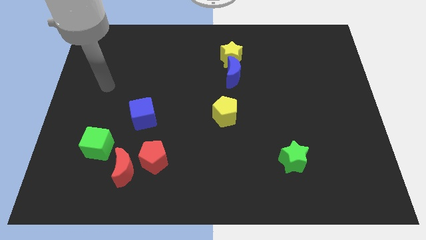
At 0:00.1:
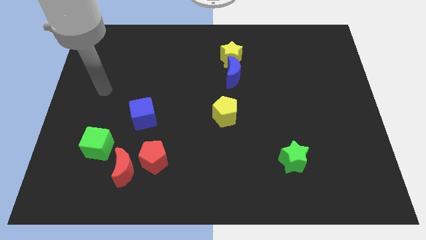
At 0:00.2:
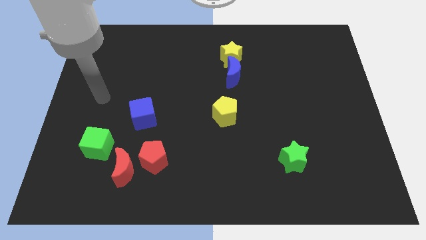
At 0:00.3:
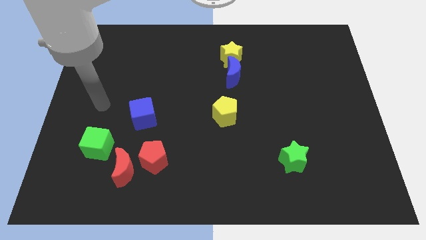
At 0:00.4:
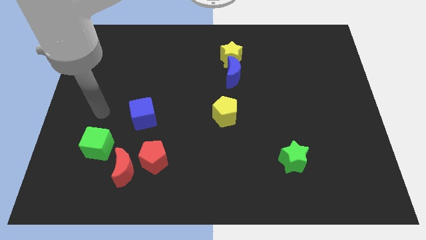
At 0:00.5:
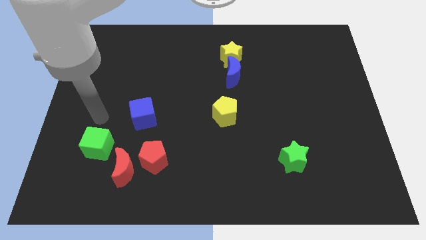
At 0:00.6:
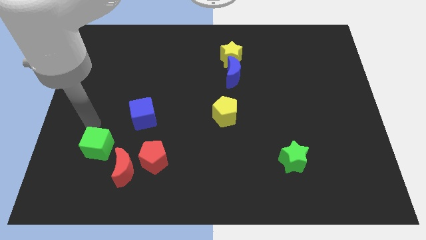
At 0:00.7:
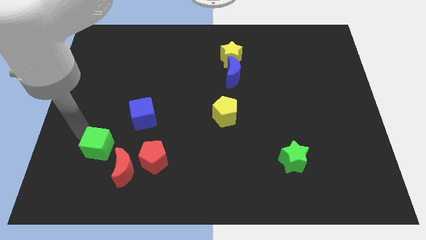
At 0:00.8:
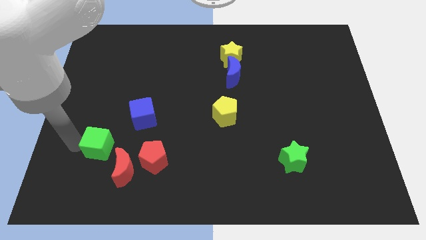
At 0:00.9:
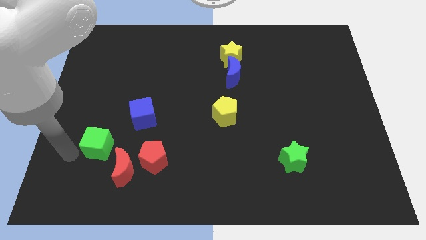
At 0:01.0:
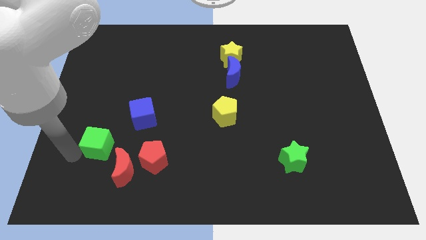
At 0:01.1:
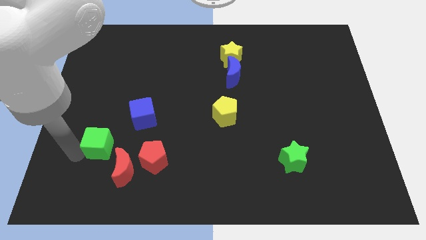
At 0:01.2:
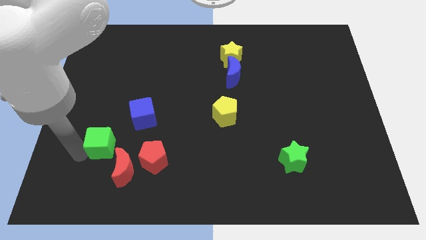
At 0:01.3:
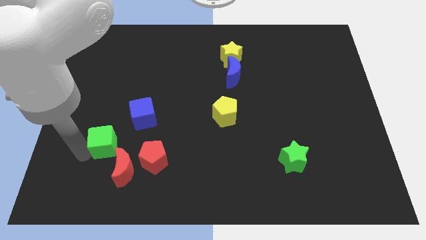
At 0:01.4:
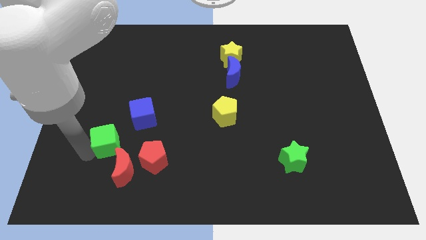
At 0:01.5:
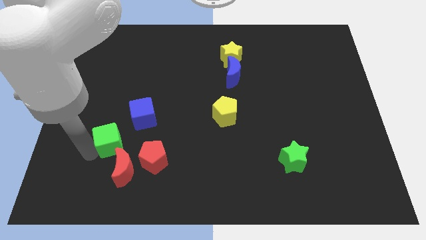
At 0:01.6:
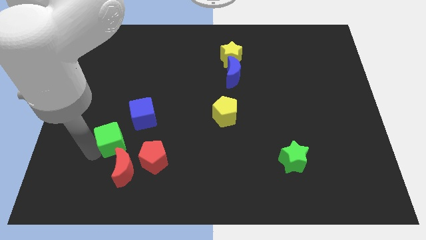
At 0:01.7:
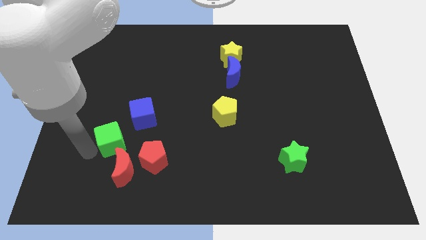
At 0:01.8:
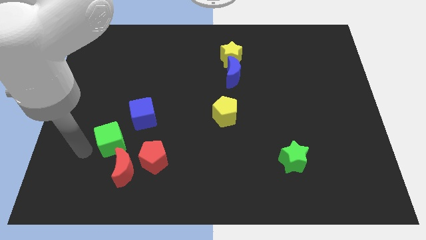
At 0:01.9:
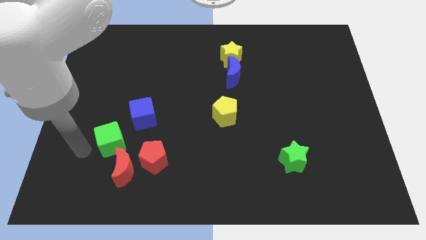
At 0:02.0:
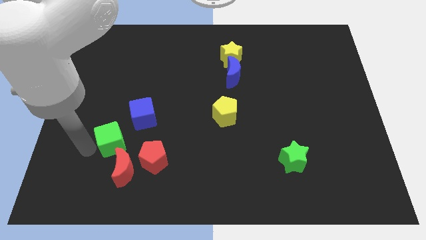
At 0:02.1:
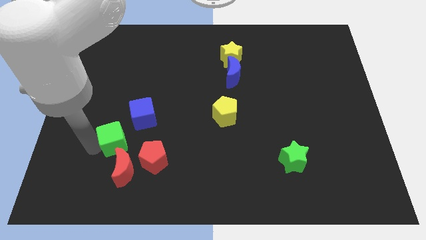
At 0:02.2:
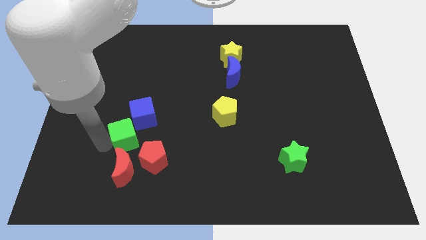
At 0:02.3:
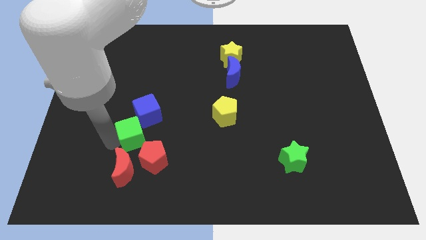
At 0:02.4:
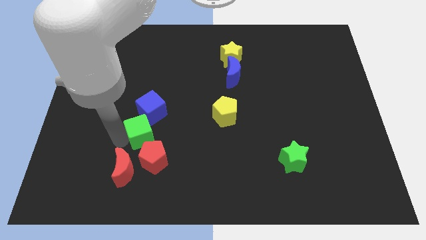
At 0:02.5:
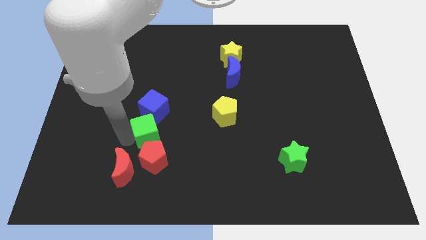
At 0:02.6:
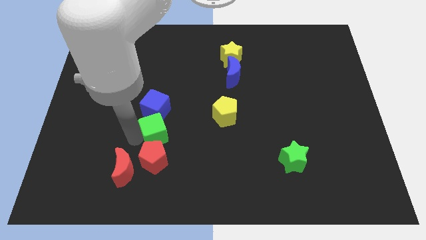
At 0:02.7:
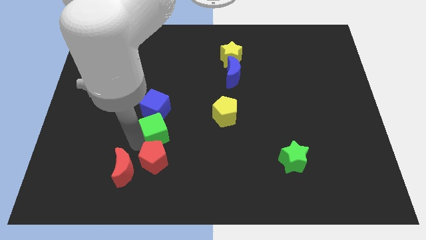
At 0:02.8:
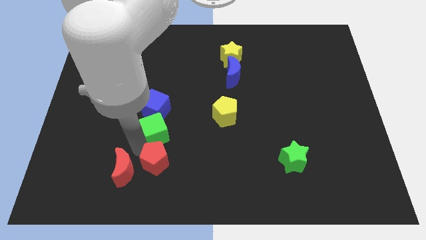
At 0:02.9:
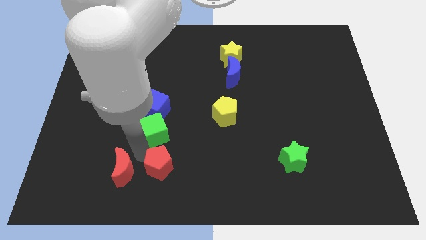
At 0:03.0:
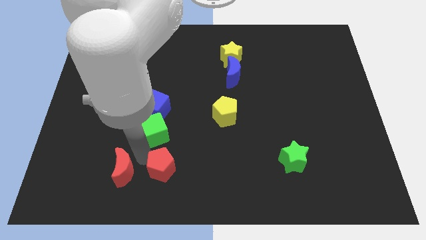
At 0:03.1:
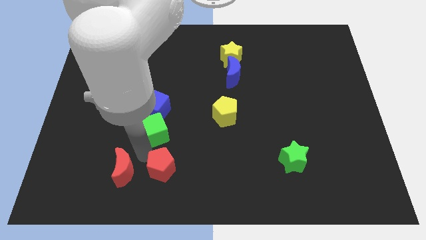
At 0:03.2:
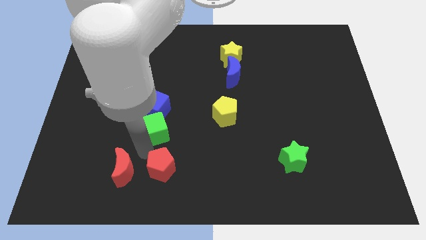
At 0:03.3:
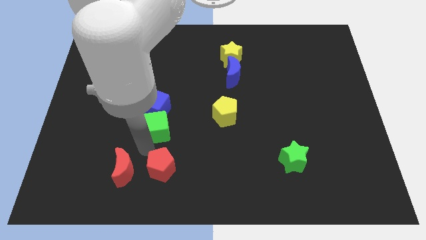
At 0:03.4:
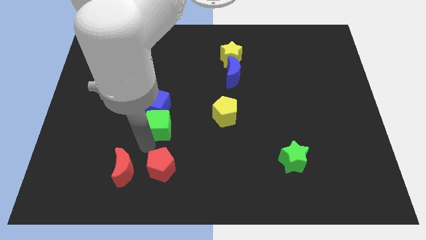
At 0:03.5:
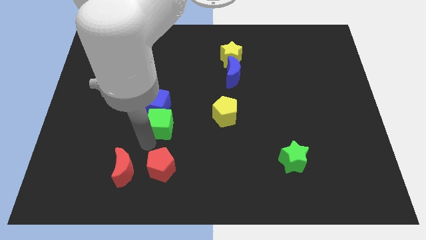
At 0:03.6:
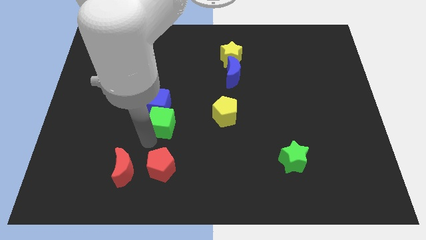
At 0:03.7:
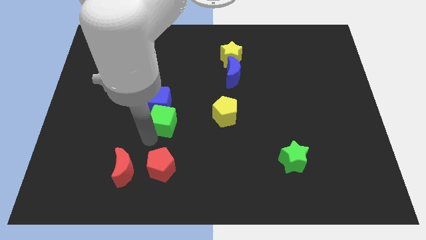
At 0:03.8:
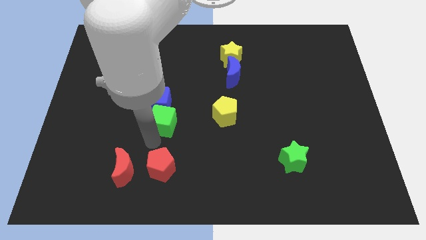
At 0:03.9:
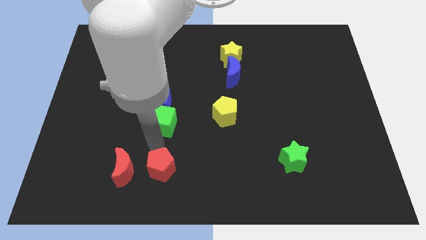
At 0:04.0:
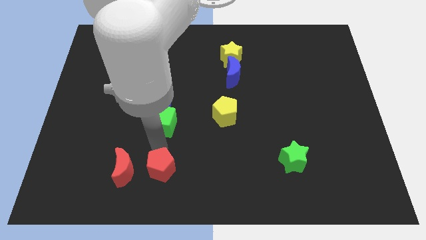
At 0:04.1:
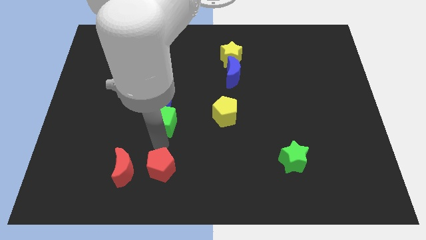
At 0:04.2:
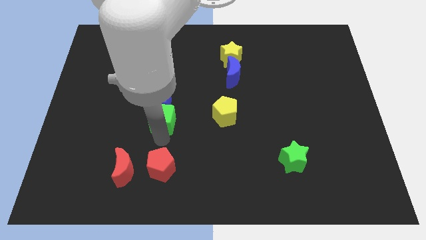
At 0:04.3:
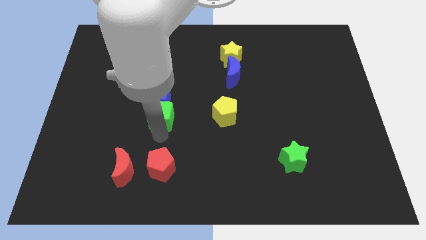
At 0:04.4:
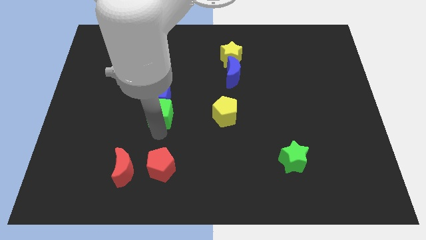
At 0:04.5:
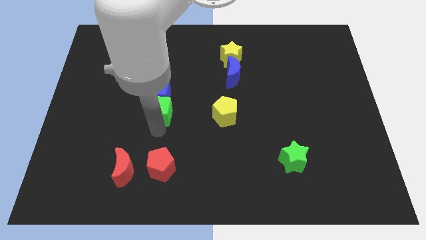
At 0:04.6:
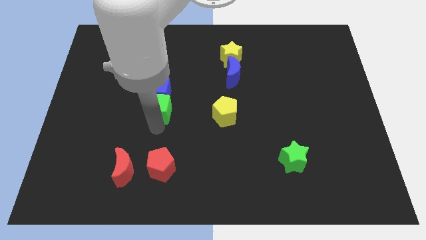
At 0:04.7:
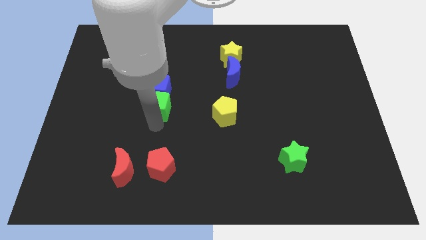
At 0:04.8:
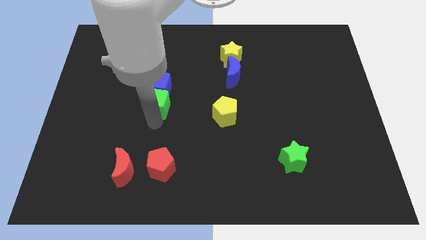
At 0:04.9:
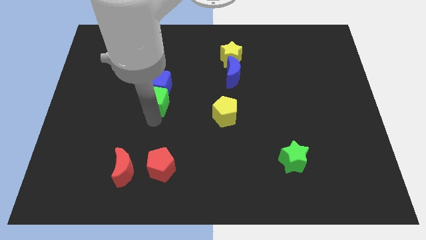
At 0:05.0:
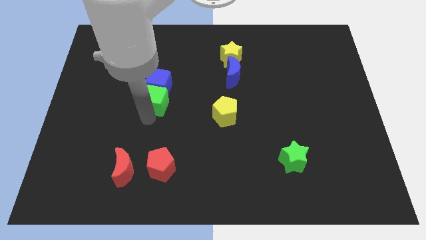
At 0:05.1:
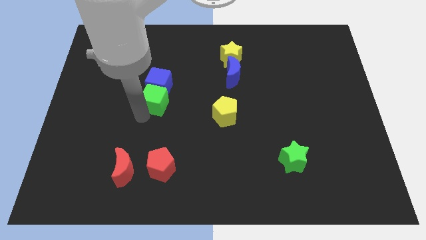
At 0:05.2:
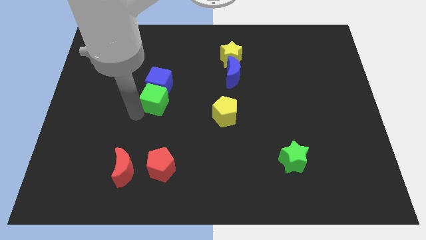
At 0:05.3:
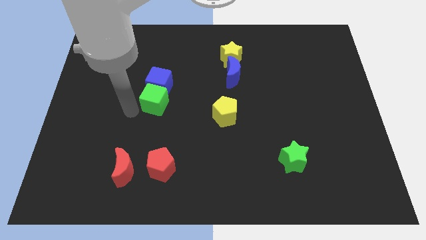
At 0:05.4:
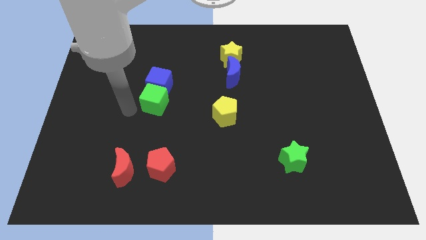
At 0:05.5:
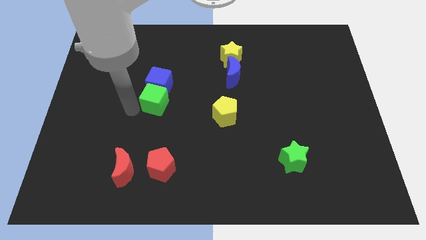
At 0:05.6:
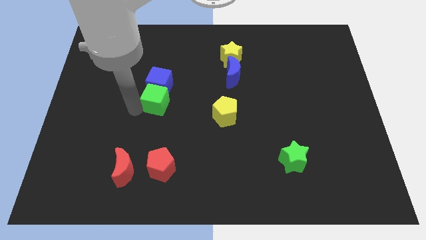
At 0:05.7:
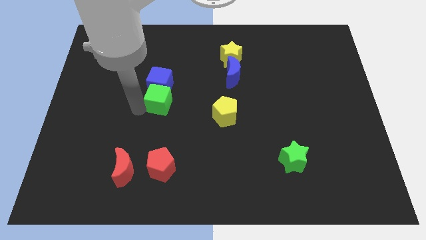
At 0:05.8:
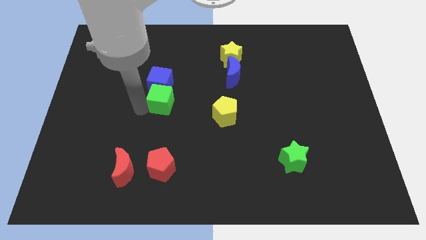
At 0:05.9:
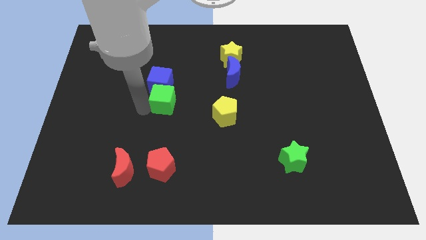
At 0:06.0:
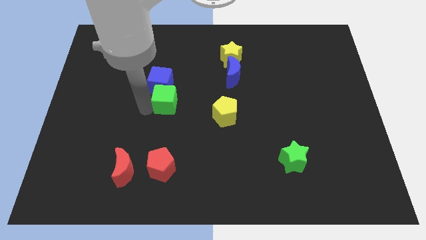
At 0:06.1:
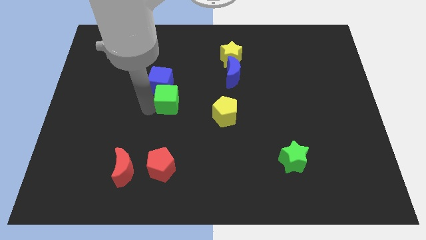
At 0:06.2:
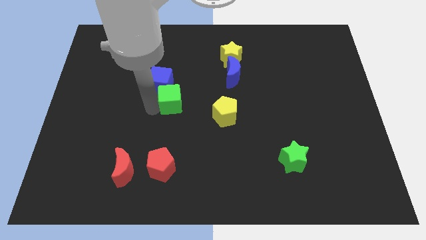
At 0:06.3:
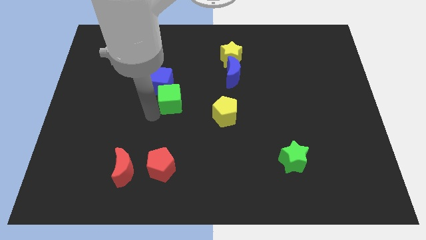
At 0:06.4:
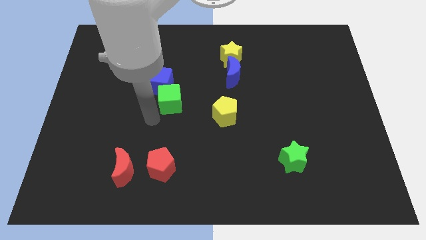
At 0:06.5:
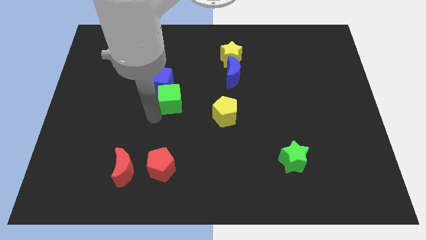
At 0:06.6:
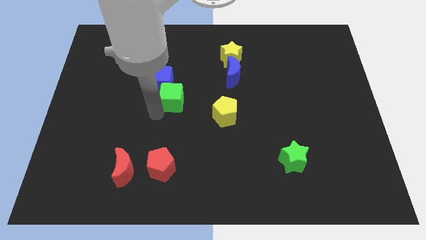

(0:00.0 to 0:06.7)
push the green cube up and then right

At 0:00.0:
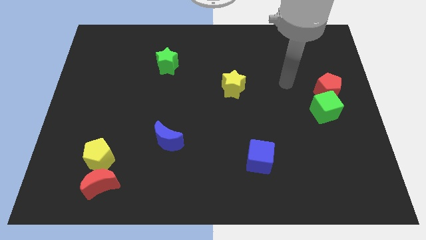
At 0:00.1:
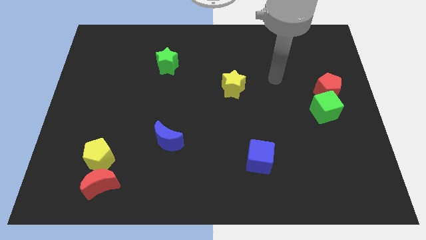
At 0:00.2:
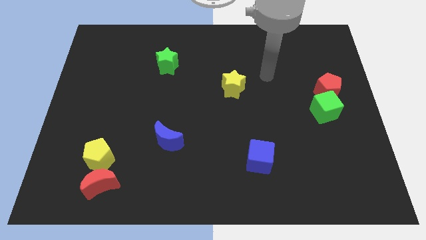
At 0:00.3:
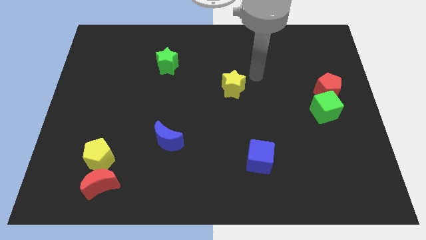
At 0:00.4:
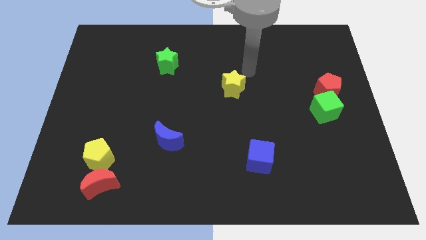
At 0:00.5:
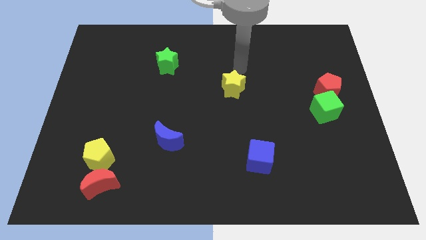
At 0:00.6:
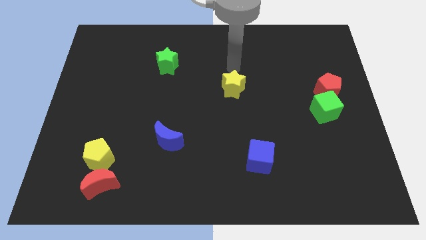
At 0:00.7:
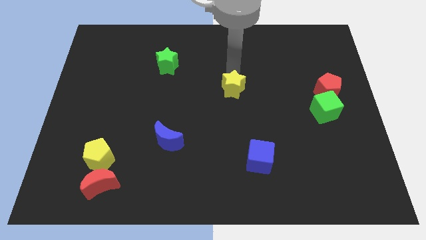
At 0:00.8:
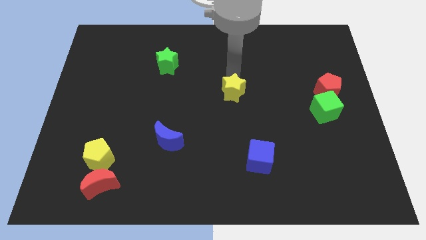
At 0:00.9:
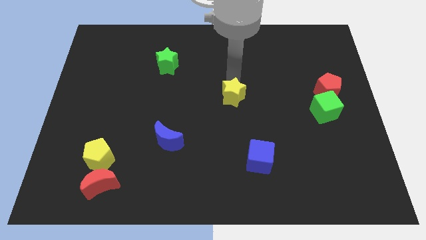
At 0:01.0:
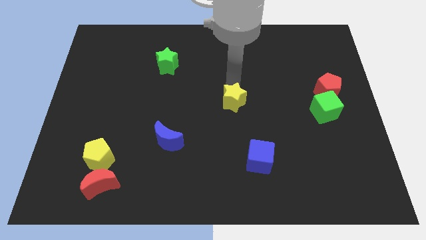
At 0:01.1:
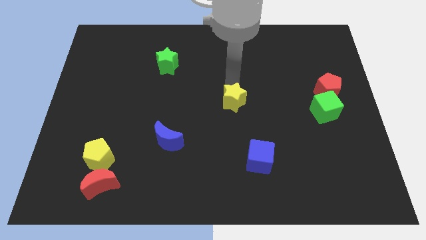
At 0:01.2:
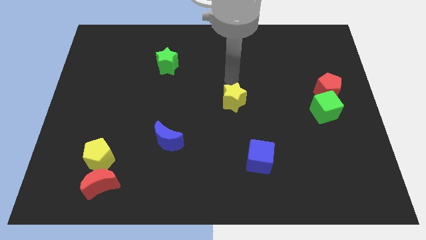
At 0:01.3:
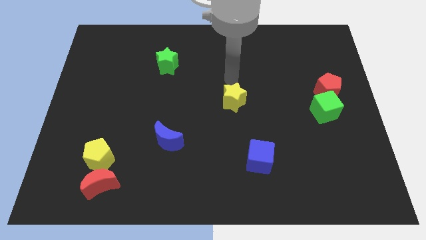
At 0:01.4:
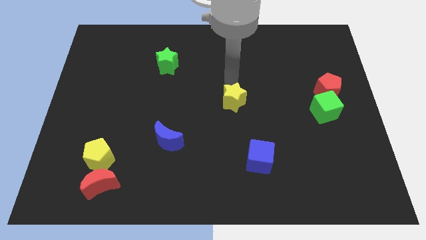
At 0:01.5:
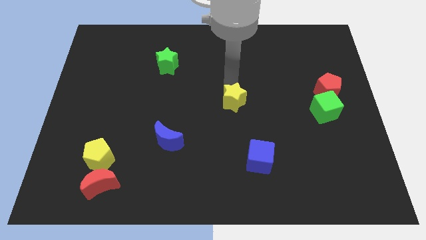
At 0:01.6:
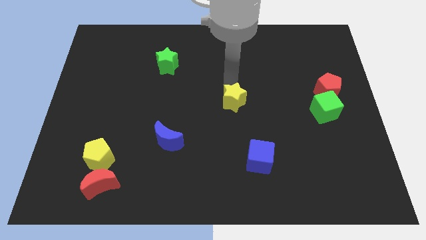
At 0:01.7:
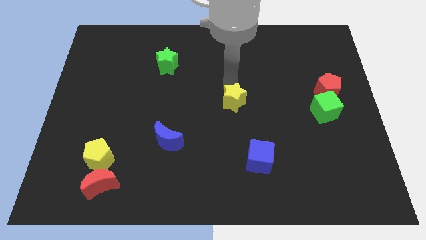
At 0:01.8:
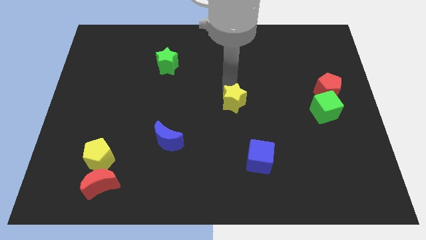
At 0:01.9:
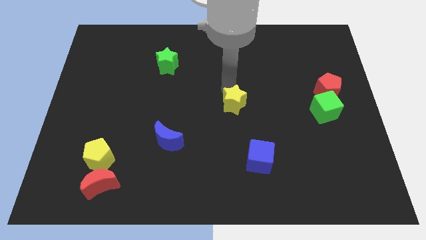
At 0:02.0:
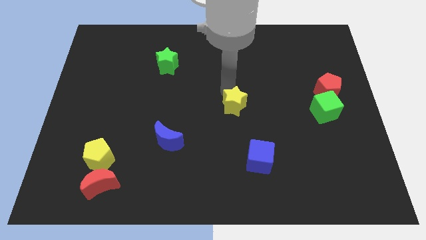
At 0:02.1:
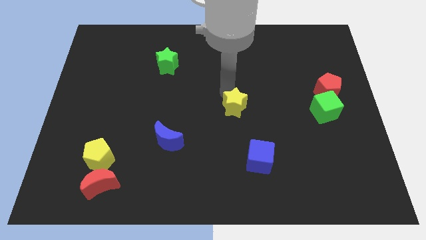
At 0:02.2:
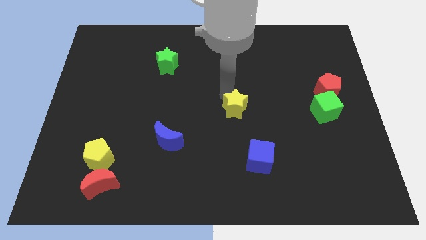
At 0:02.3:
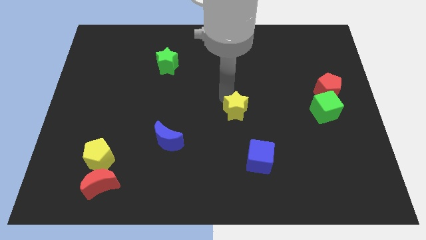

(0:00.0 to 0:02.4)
slightly move the yellow star downwards
